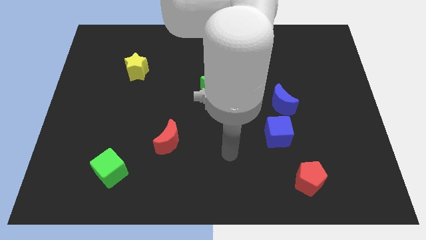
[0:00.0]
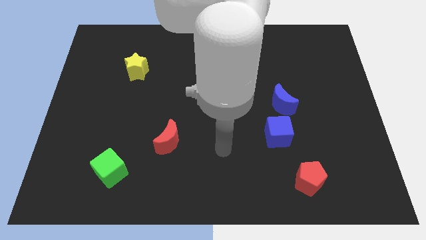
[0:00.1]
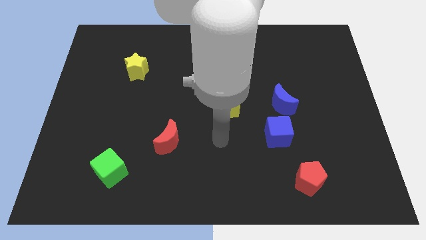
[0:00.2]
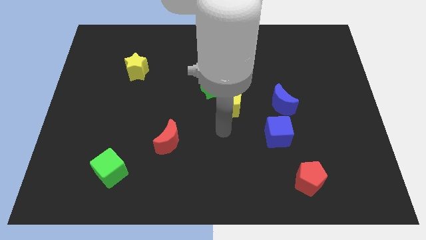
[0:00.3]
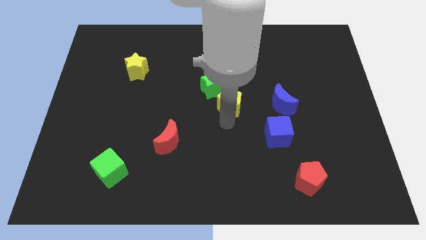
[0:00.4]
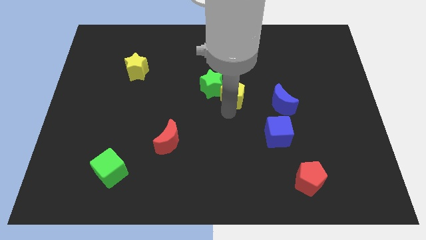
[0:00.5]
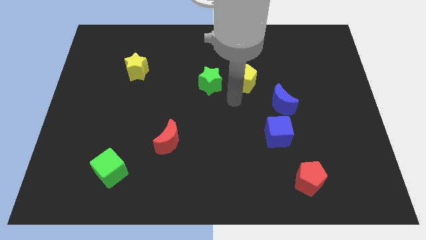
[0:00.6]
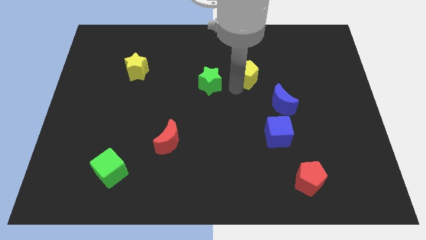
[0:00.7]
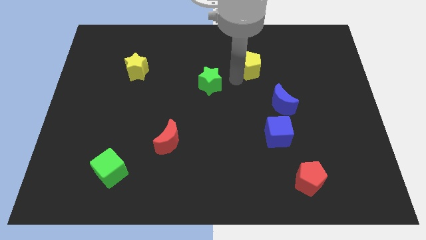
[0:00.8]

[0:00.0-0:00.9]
separate the green star from the yellow pentagon

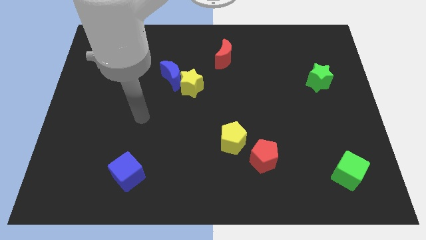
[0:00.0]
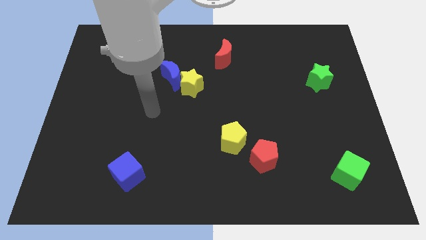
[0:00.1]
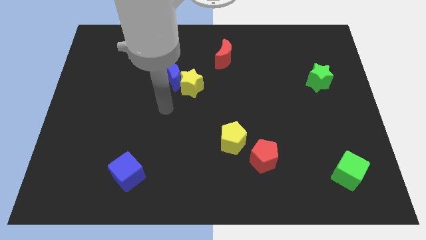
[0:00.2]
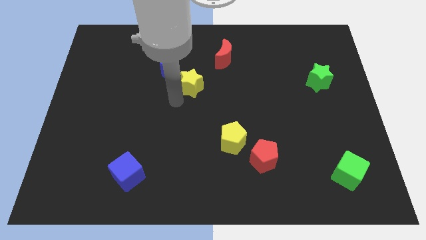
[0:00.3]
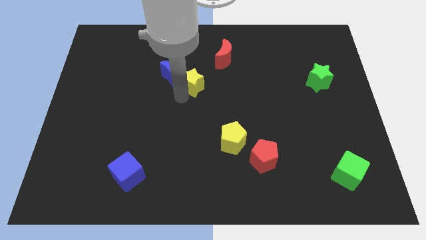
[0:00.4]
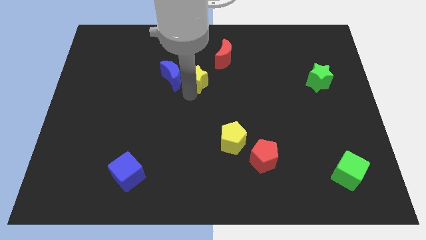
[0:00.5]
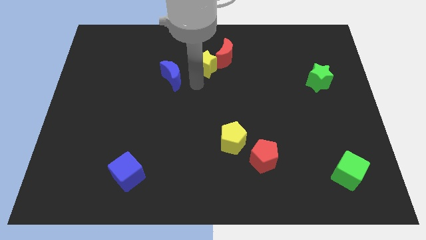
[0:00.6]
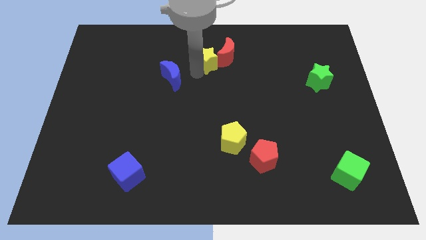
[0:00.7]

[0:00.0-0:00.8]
pull the blue moon apart from the yellow star

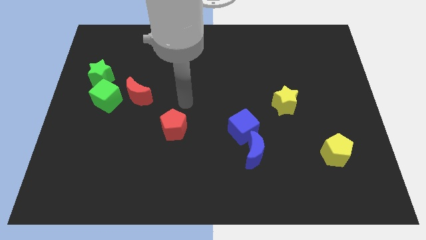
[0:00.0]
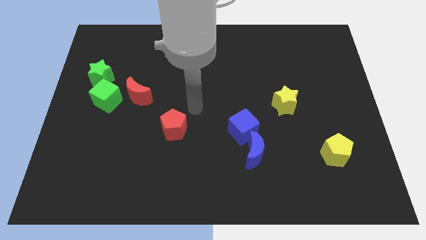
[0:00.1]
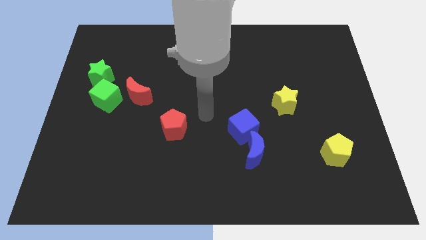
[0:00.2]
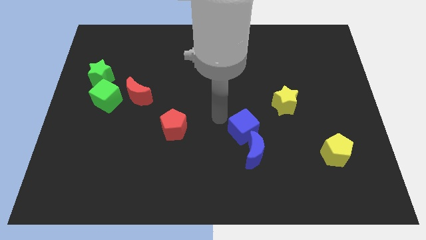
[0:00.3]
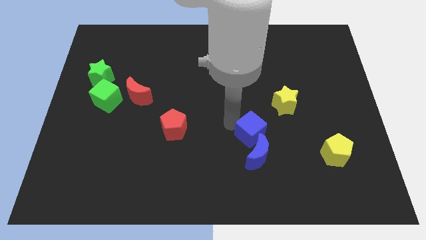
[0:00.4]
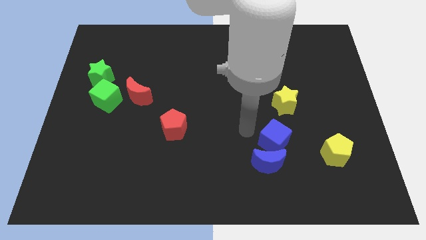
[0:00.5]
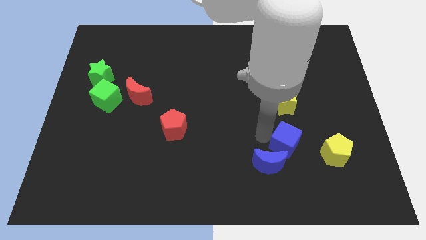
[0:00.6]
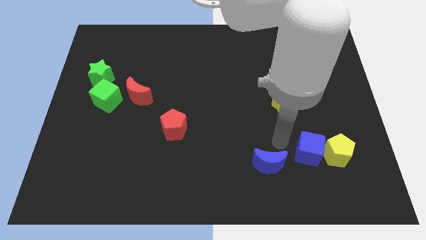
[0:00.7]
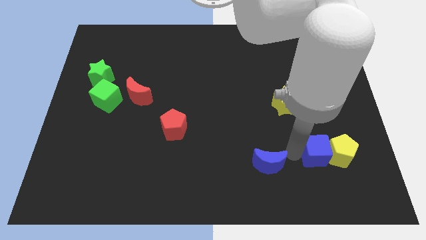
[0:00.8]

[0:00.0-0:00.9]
pull the blue moon apart from the blue cube

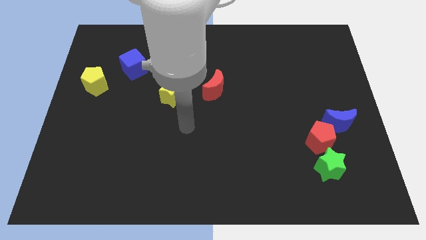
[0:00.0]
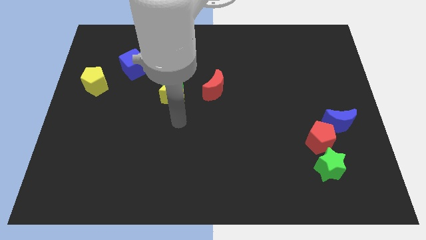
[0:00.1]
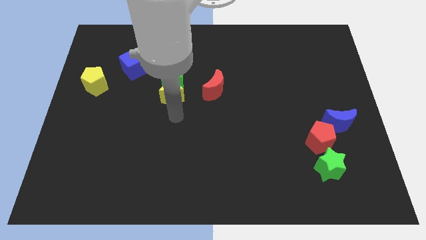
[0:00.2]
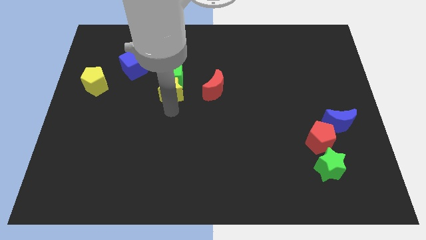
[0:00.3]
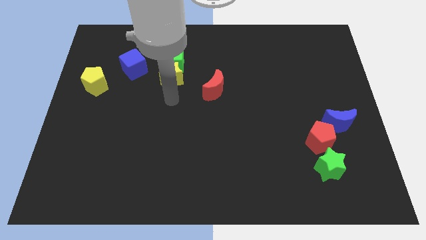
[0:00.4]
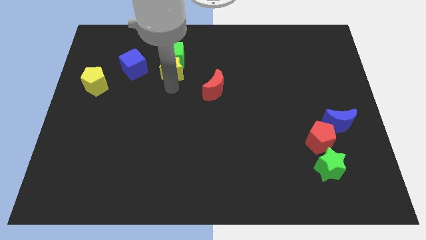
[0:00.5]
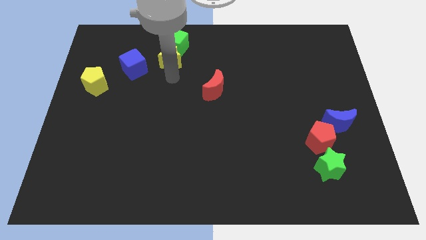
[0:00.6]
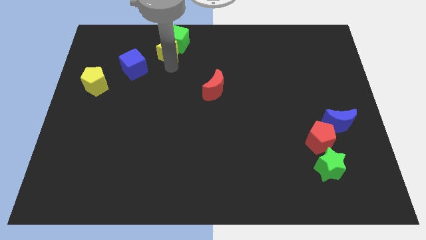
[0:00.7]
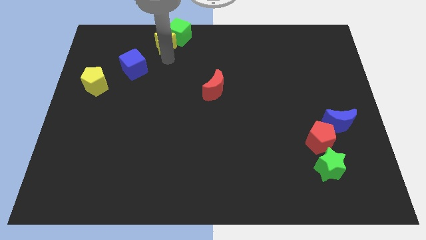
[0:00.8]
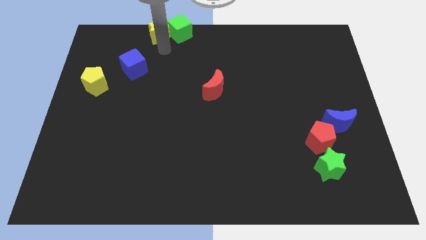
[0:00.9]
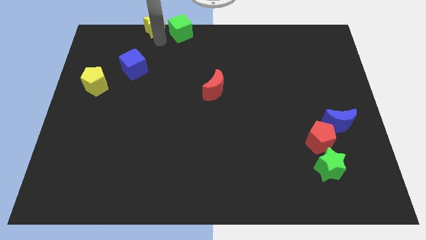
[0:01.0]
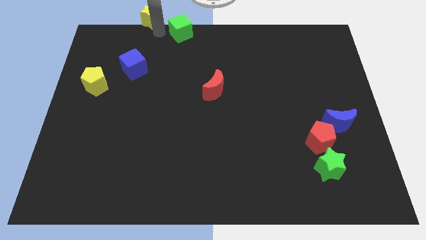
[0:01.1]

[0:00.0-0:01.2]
move the green cube away from the yellow star

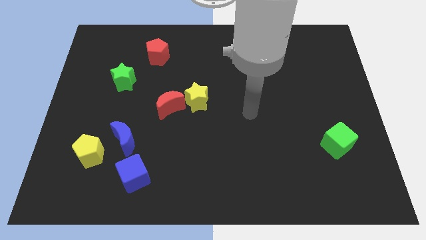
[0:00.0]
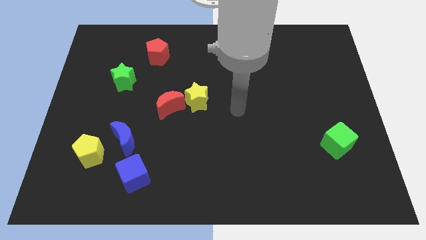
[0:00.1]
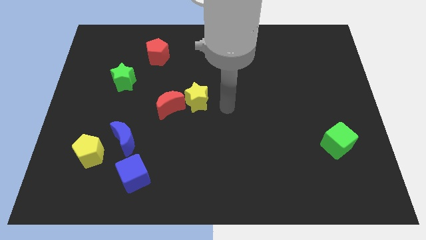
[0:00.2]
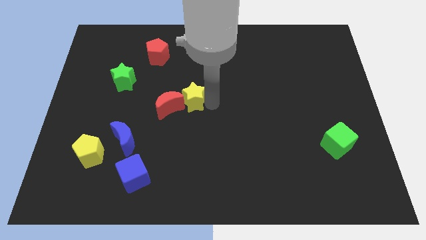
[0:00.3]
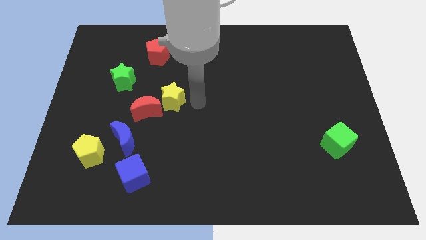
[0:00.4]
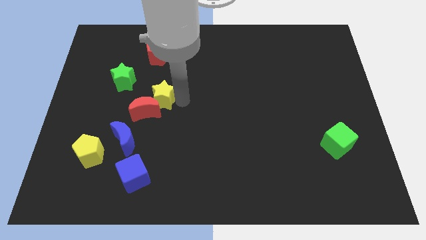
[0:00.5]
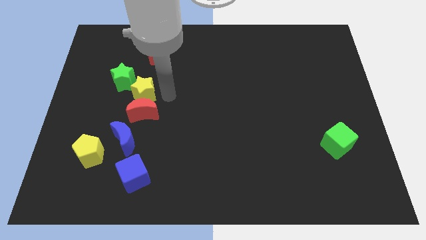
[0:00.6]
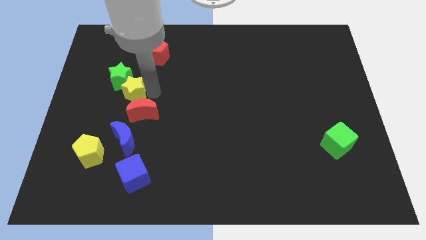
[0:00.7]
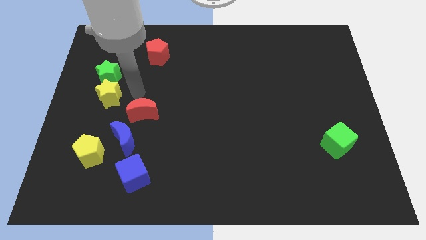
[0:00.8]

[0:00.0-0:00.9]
move the red moon away from the yellow star

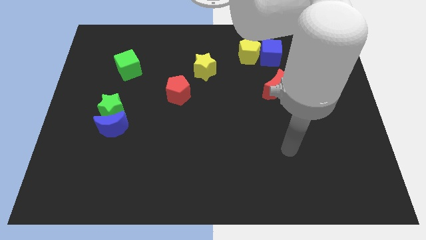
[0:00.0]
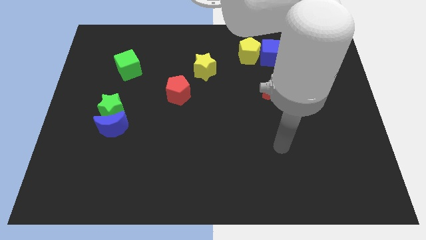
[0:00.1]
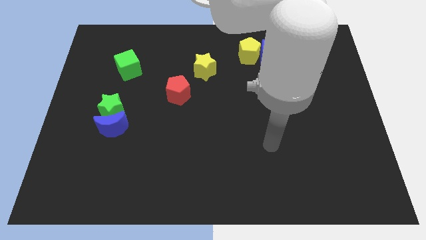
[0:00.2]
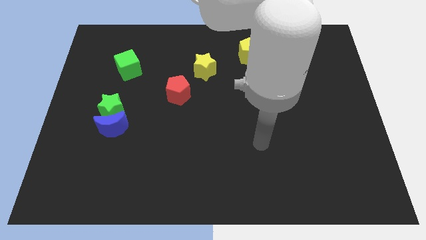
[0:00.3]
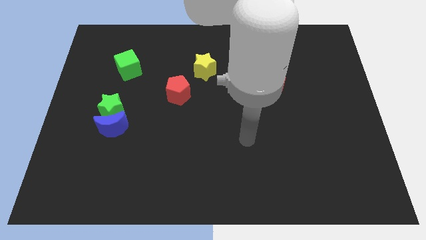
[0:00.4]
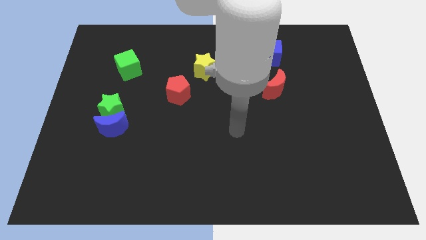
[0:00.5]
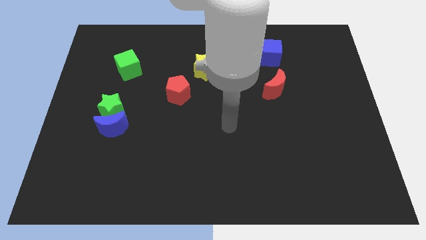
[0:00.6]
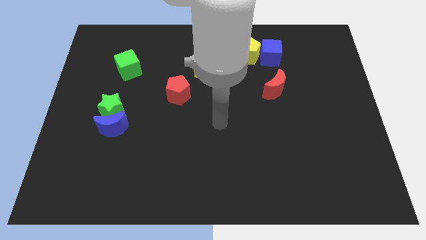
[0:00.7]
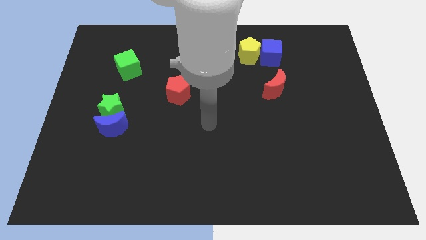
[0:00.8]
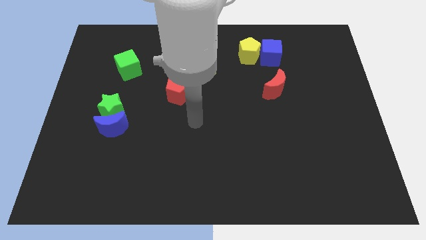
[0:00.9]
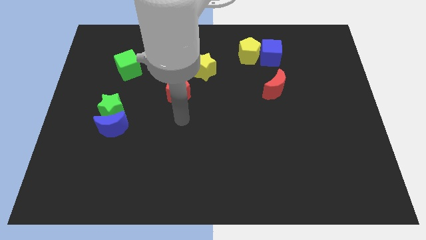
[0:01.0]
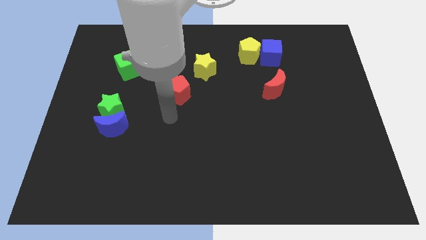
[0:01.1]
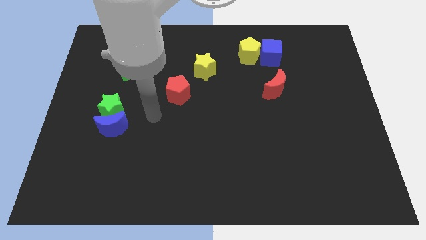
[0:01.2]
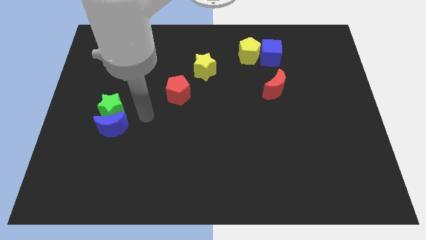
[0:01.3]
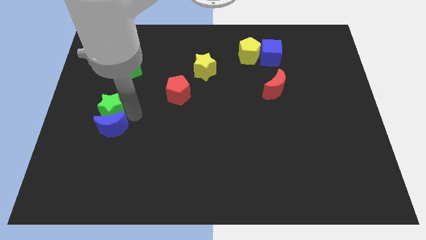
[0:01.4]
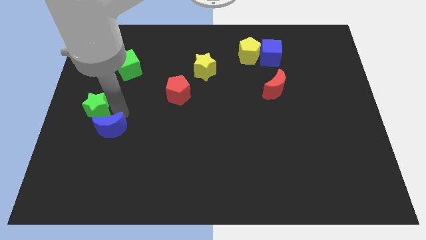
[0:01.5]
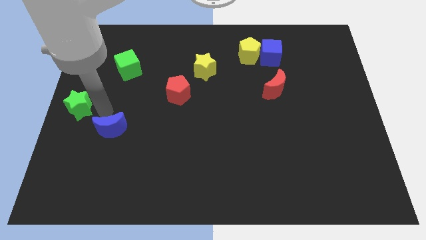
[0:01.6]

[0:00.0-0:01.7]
pull the blue moon apart from the green star

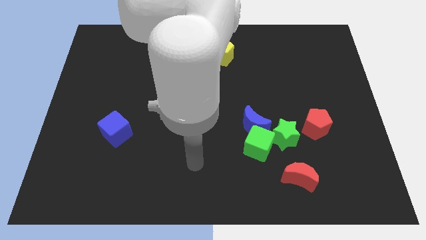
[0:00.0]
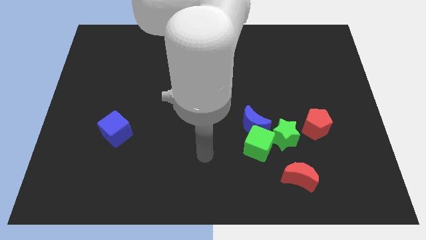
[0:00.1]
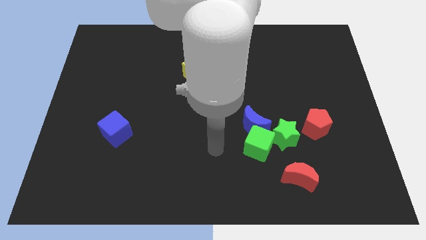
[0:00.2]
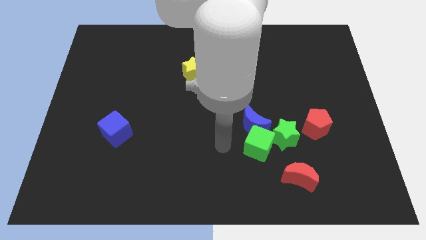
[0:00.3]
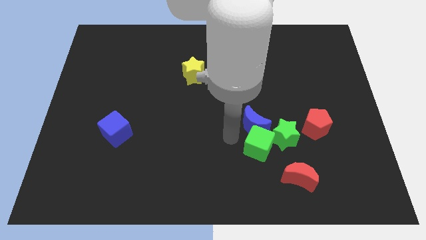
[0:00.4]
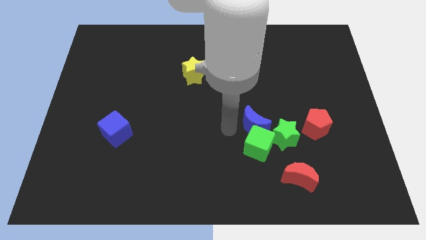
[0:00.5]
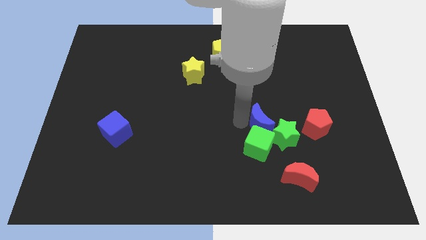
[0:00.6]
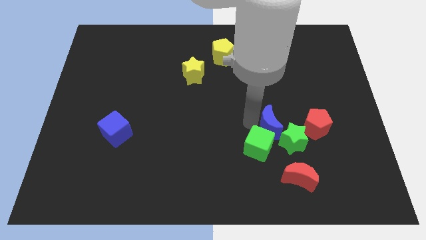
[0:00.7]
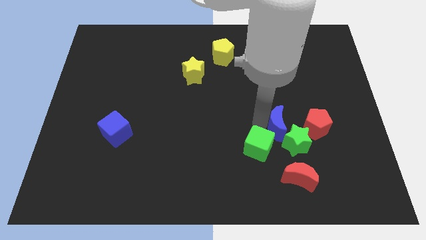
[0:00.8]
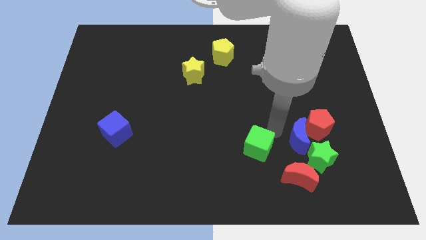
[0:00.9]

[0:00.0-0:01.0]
pull the green cube apart from the blue moon and green star

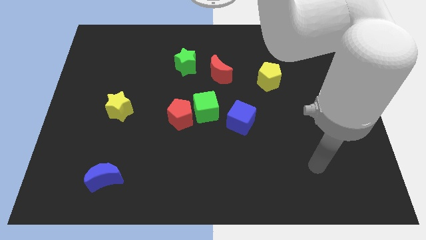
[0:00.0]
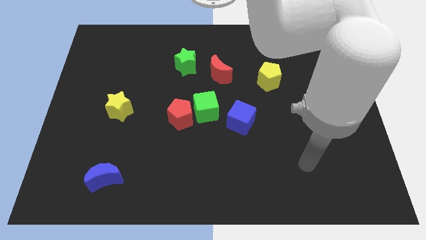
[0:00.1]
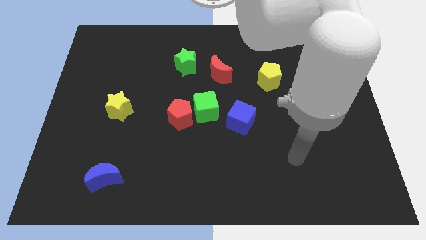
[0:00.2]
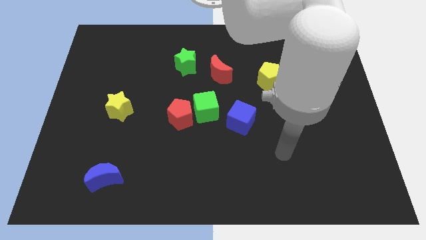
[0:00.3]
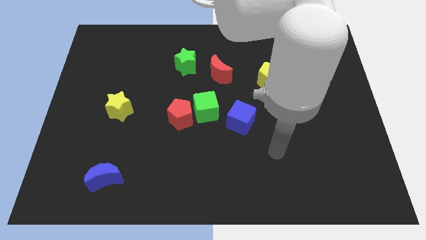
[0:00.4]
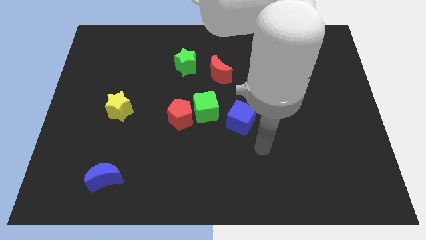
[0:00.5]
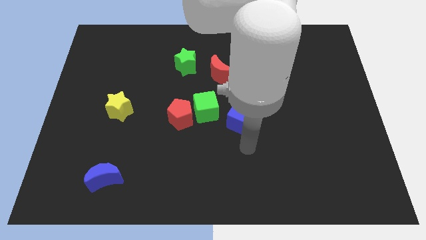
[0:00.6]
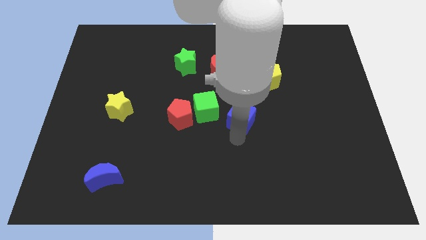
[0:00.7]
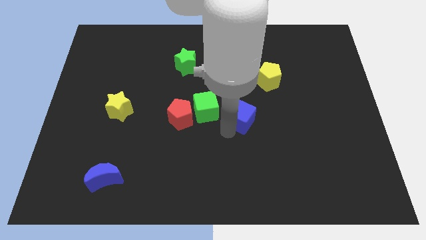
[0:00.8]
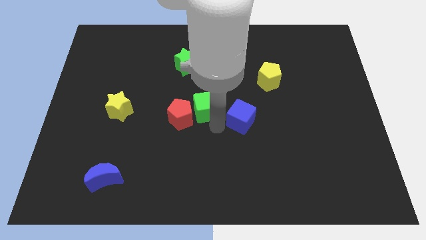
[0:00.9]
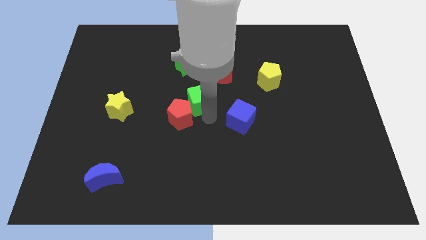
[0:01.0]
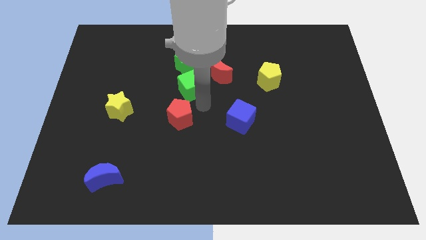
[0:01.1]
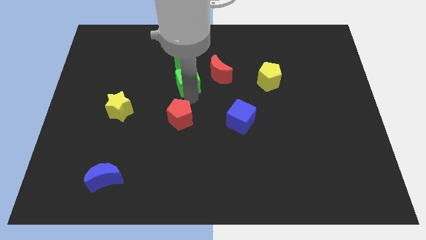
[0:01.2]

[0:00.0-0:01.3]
separate the red pentagon from the green cube

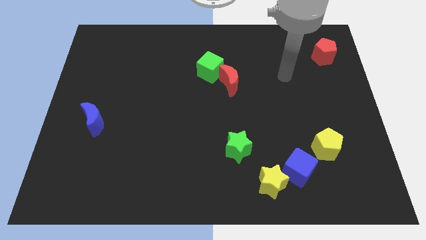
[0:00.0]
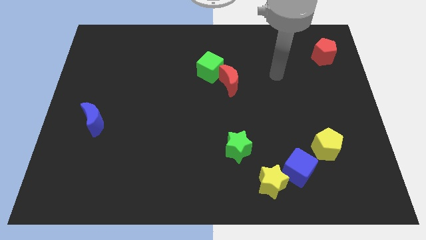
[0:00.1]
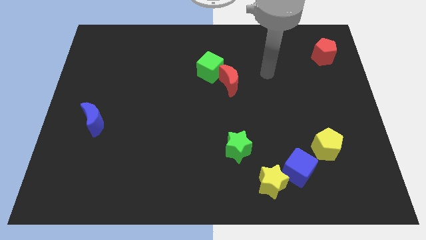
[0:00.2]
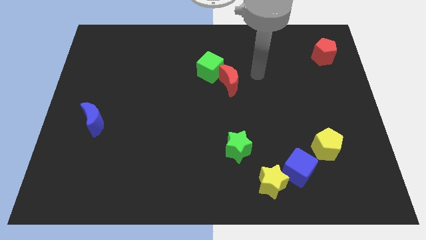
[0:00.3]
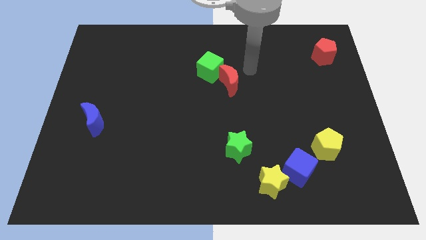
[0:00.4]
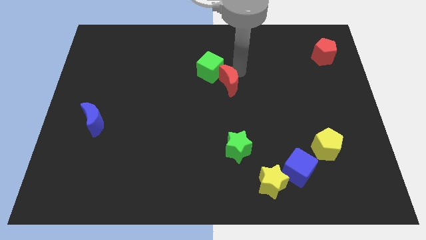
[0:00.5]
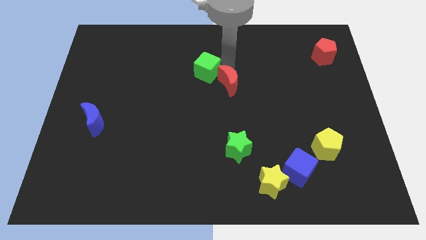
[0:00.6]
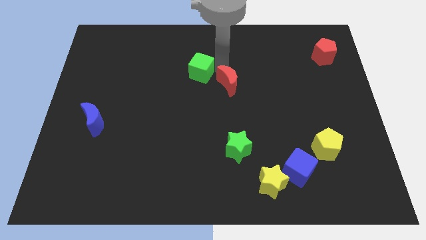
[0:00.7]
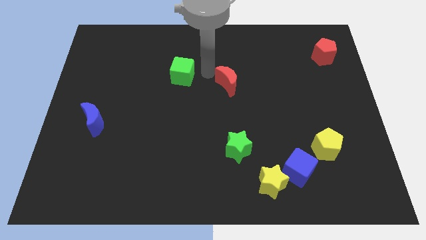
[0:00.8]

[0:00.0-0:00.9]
pull the red moon apart from the green cube
